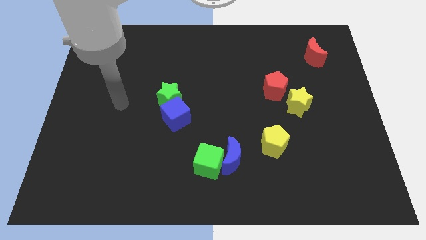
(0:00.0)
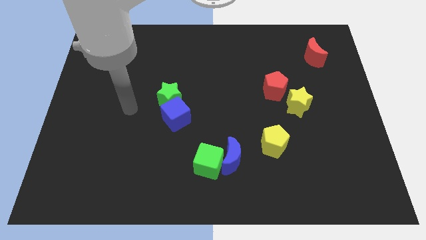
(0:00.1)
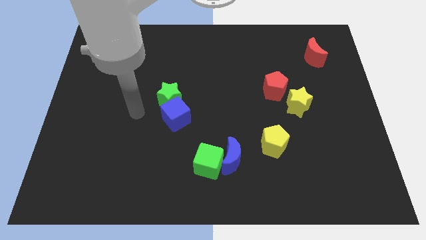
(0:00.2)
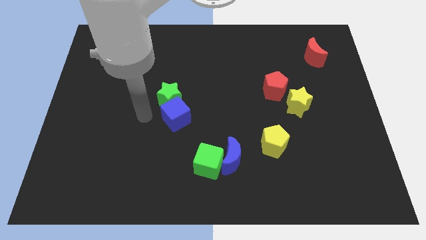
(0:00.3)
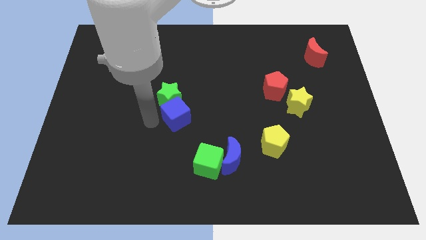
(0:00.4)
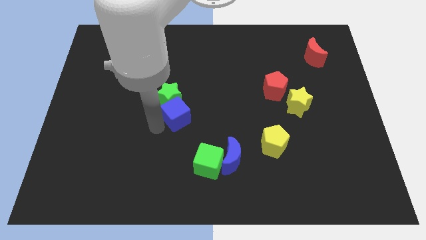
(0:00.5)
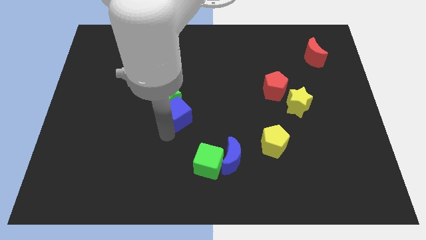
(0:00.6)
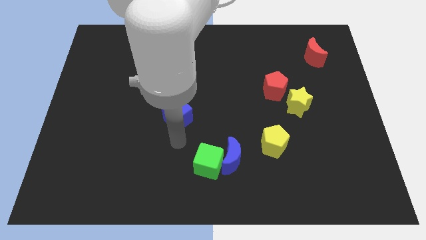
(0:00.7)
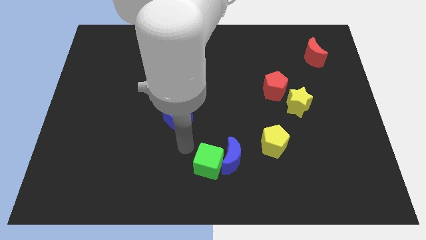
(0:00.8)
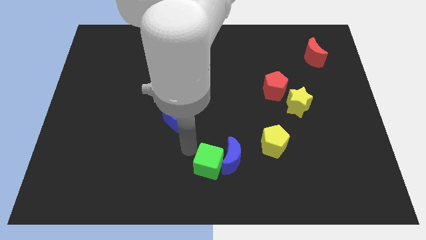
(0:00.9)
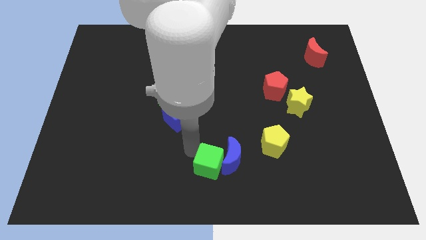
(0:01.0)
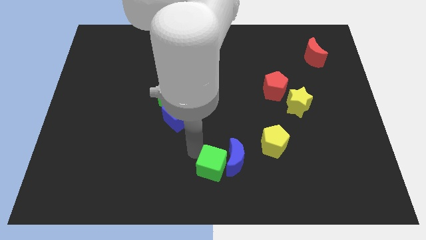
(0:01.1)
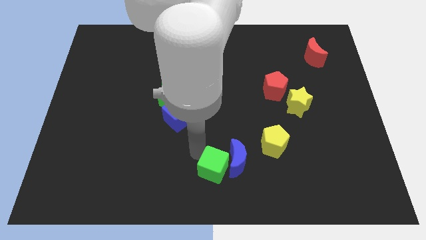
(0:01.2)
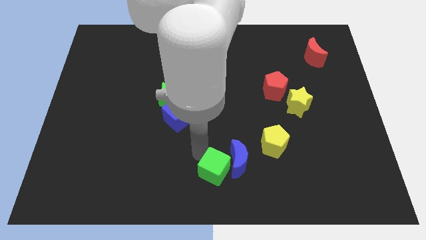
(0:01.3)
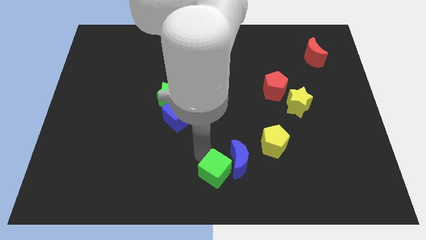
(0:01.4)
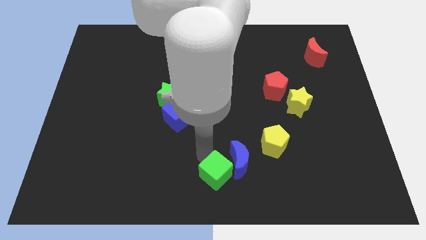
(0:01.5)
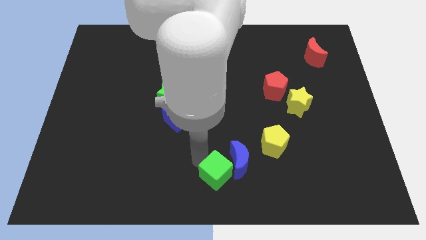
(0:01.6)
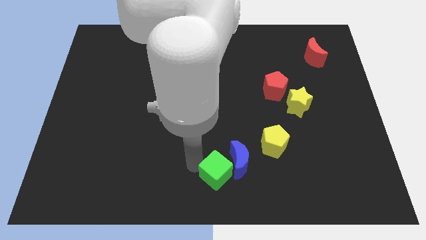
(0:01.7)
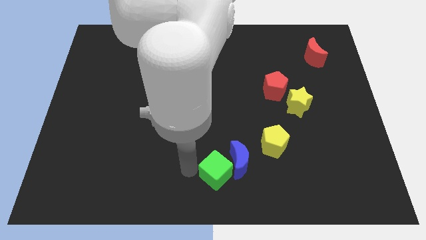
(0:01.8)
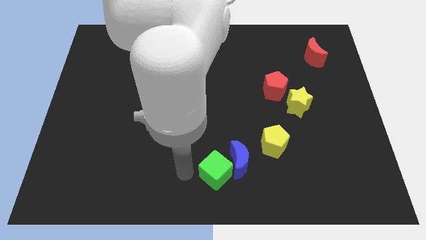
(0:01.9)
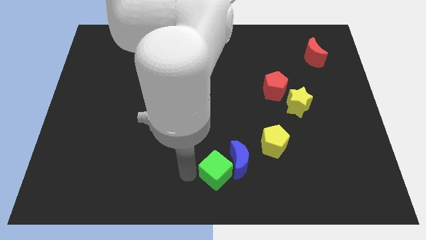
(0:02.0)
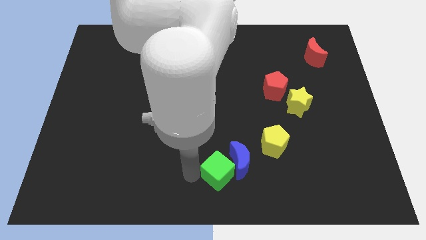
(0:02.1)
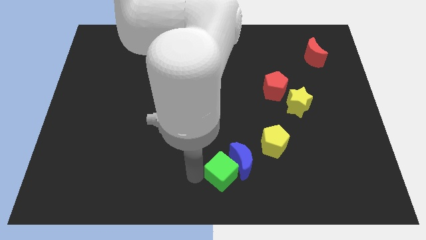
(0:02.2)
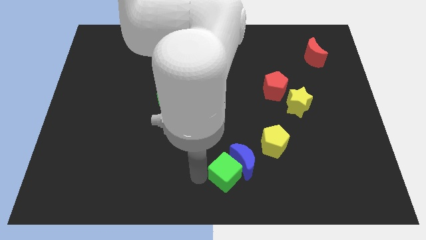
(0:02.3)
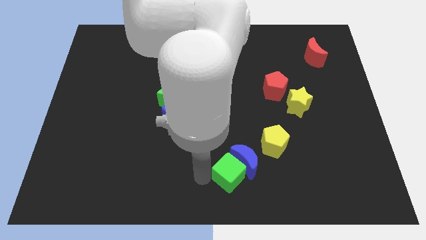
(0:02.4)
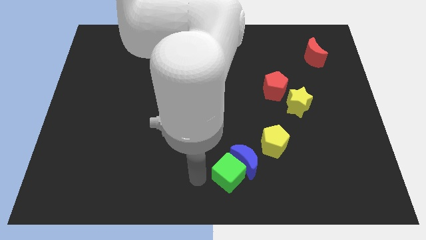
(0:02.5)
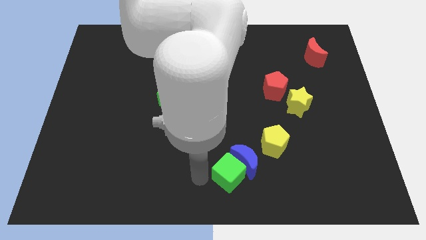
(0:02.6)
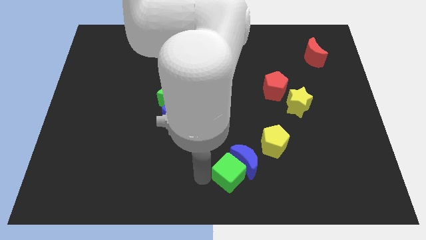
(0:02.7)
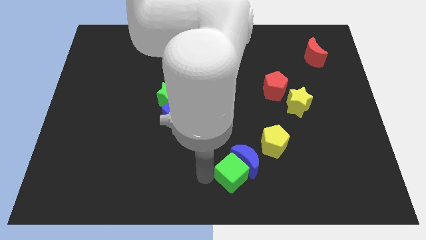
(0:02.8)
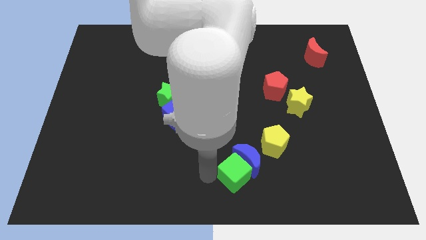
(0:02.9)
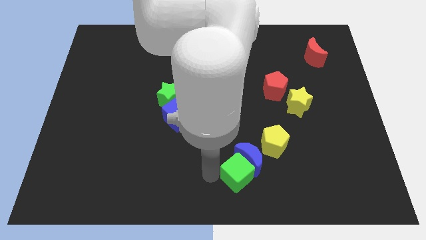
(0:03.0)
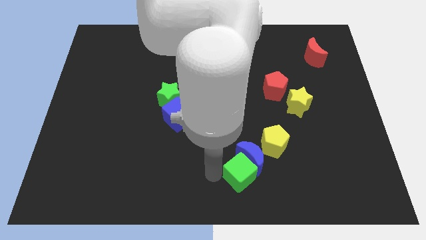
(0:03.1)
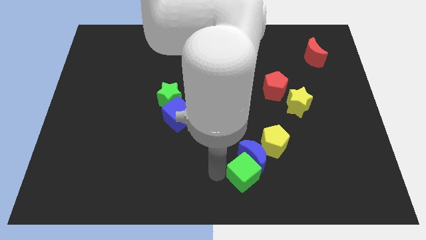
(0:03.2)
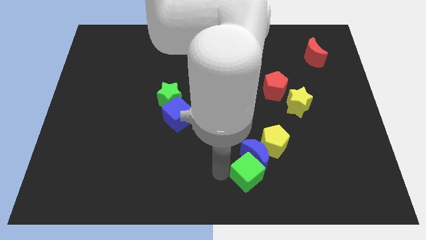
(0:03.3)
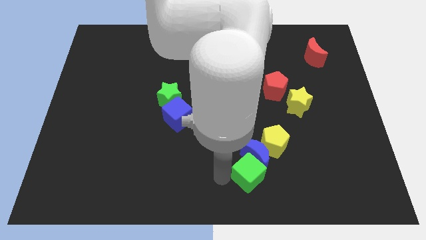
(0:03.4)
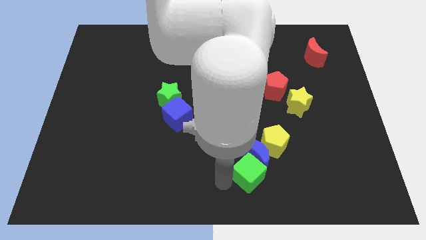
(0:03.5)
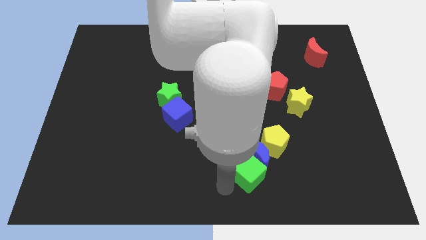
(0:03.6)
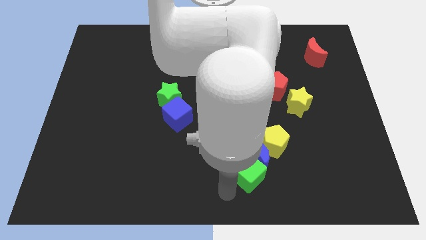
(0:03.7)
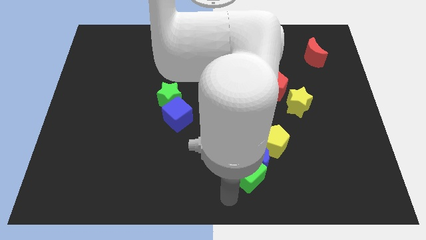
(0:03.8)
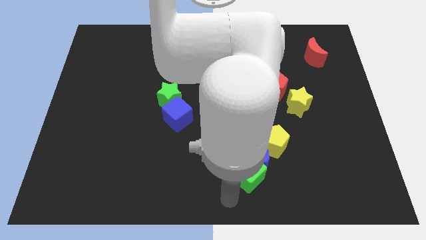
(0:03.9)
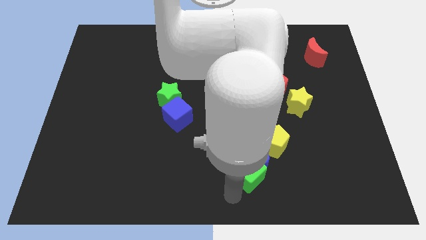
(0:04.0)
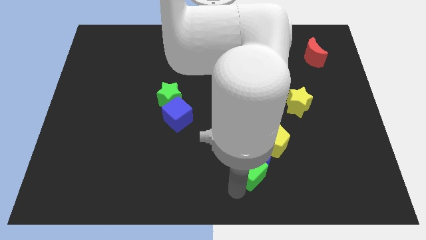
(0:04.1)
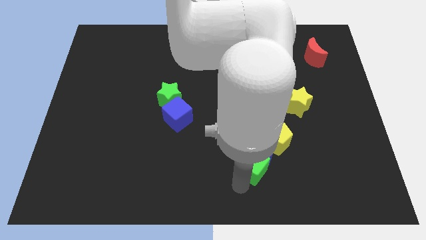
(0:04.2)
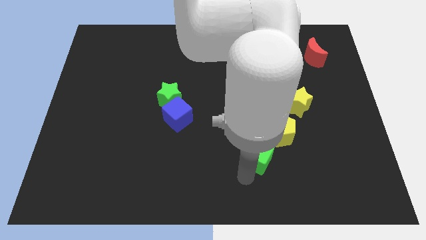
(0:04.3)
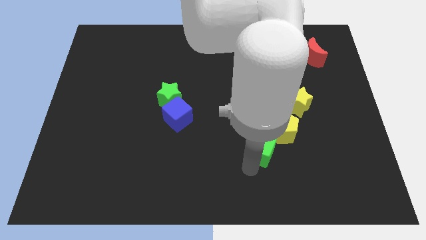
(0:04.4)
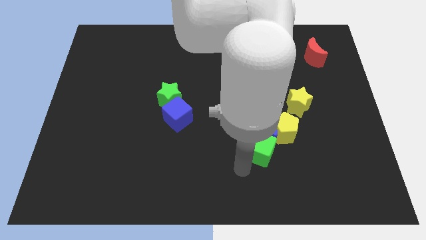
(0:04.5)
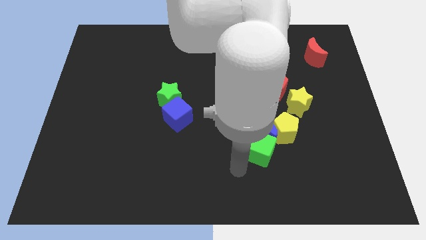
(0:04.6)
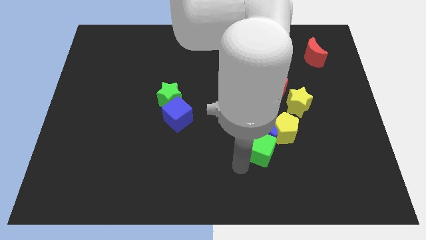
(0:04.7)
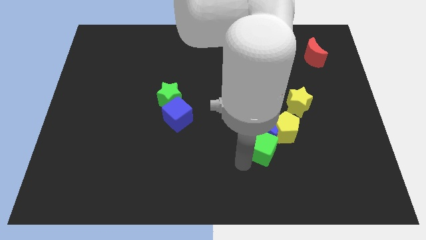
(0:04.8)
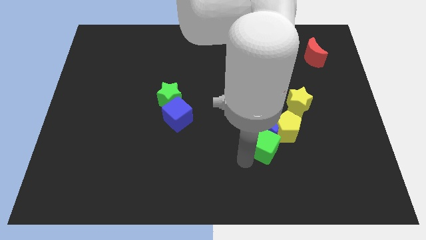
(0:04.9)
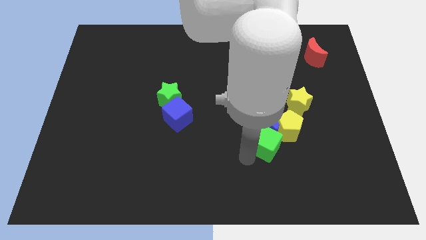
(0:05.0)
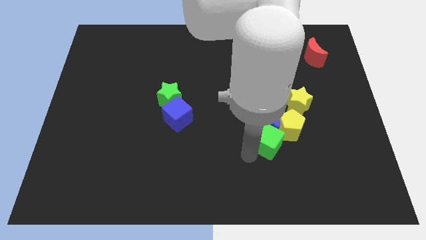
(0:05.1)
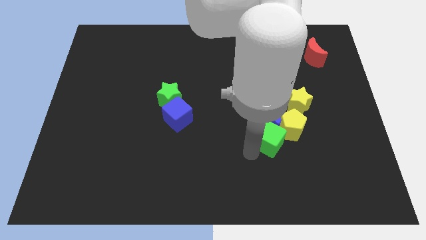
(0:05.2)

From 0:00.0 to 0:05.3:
slide the green cube next to the yellow pentagon

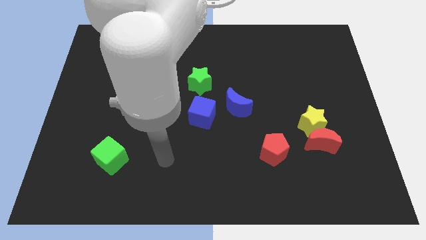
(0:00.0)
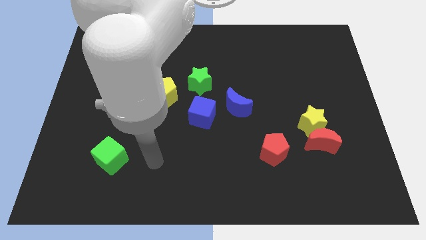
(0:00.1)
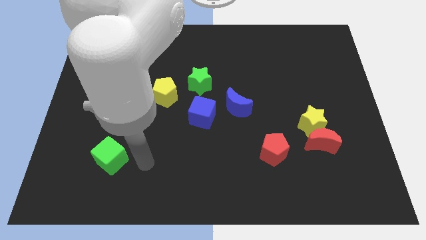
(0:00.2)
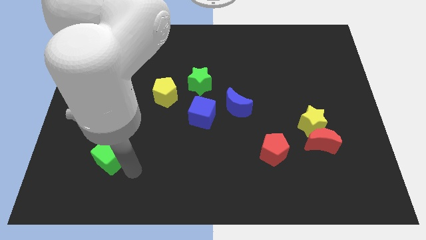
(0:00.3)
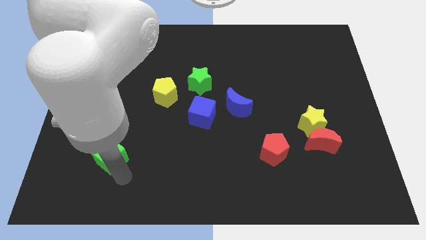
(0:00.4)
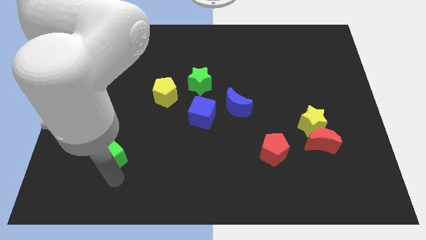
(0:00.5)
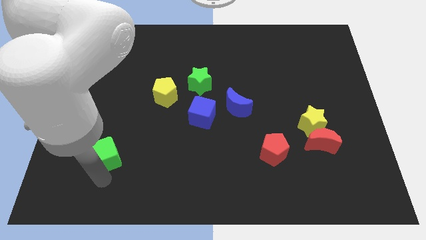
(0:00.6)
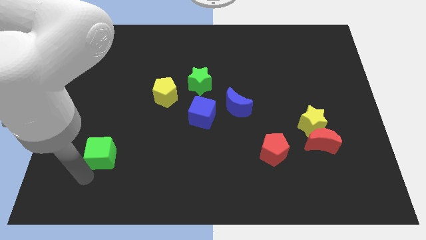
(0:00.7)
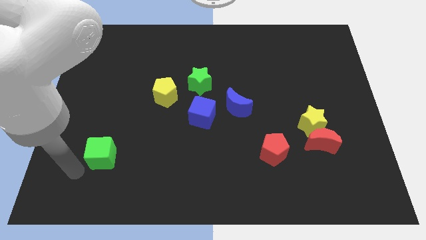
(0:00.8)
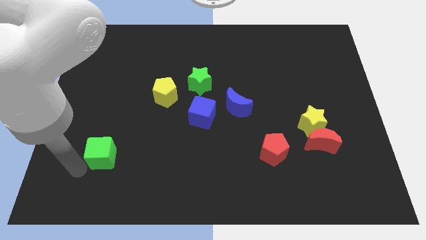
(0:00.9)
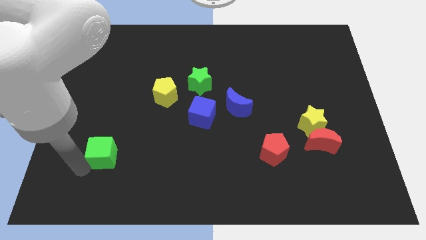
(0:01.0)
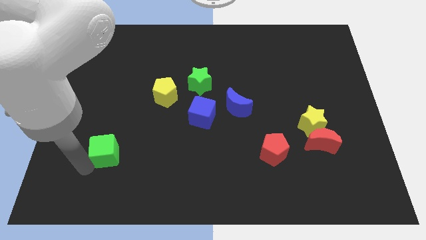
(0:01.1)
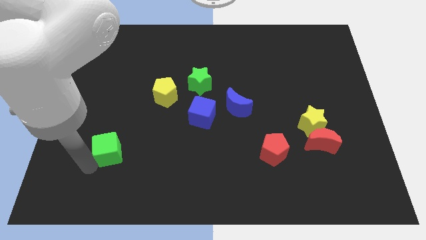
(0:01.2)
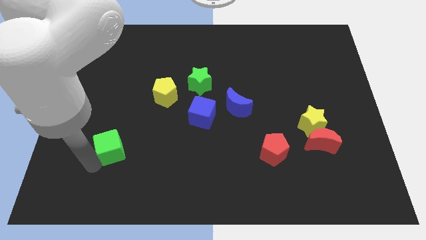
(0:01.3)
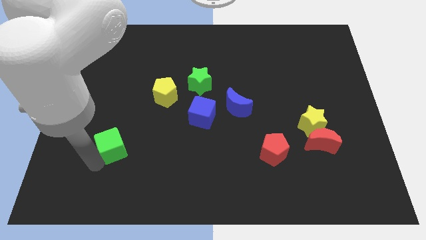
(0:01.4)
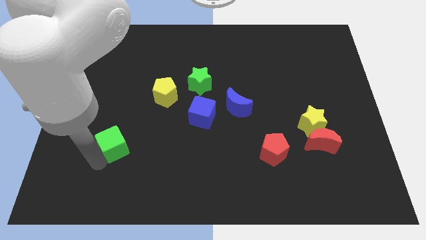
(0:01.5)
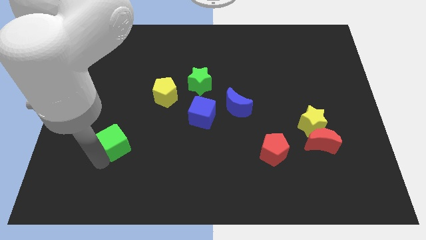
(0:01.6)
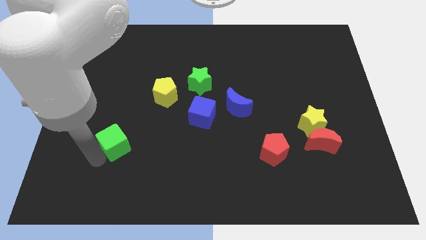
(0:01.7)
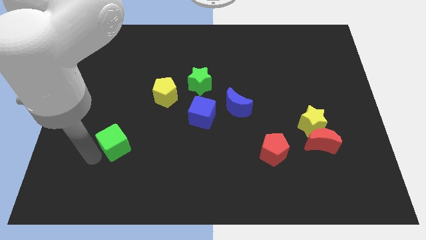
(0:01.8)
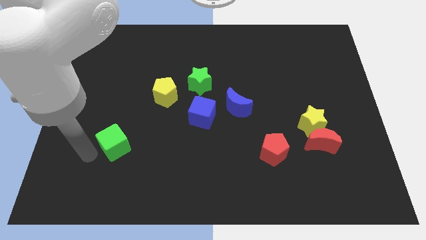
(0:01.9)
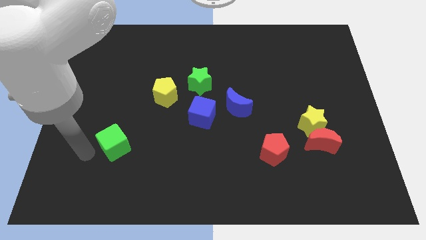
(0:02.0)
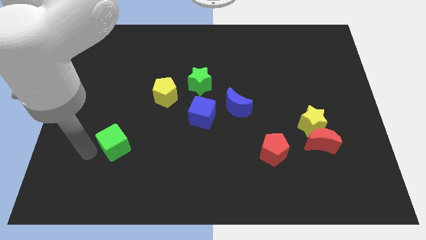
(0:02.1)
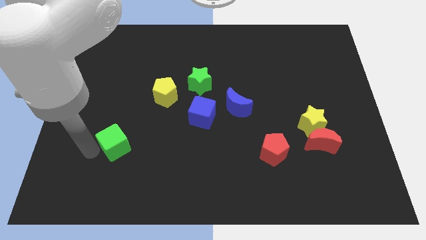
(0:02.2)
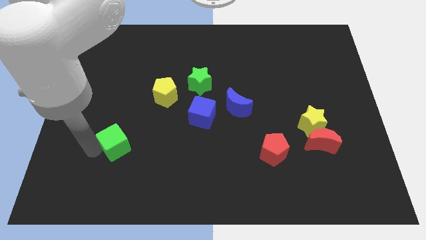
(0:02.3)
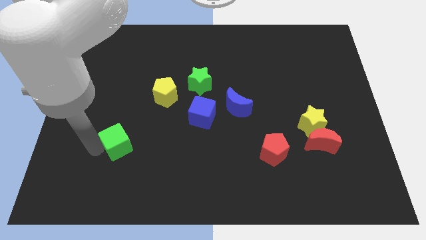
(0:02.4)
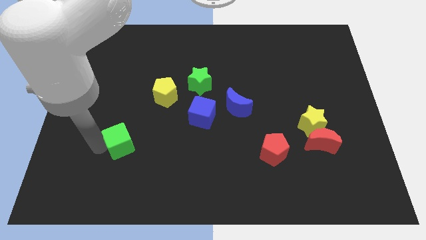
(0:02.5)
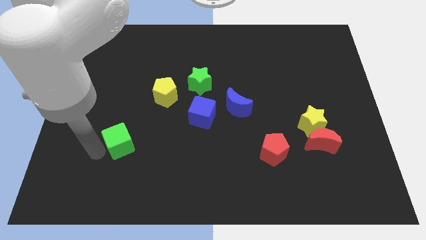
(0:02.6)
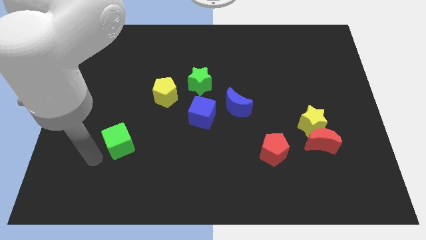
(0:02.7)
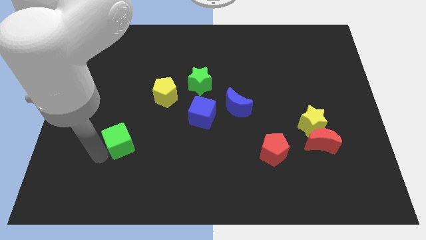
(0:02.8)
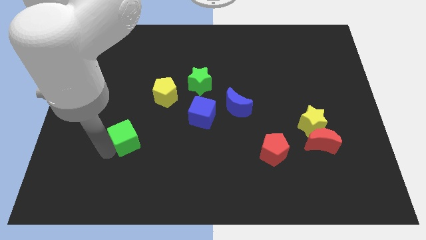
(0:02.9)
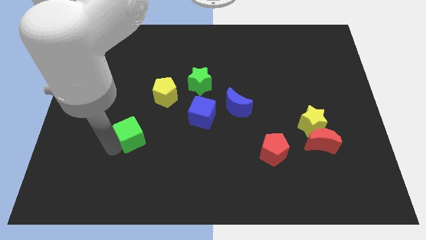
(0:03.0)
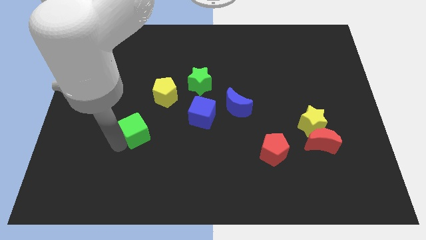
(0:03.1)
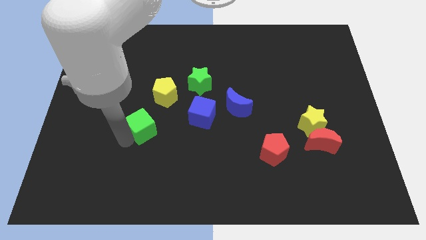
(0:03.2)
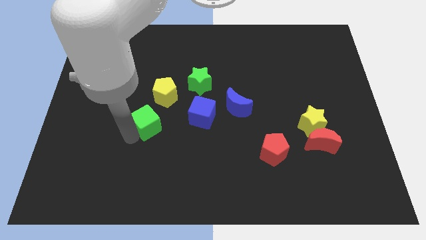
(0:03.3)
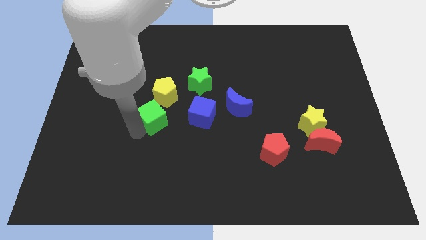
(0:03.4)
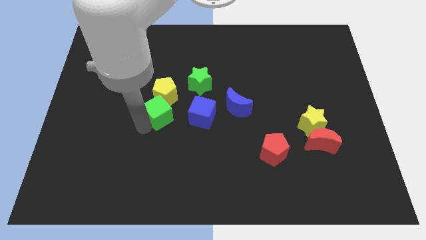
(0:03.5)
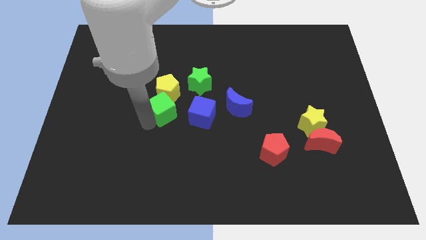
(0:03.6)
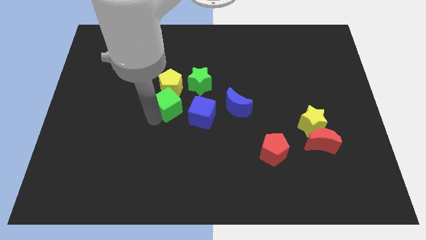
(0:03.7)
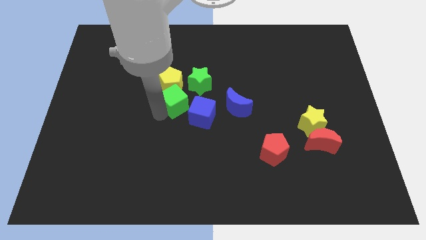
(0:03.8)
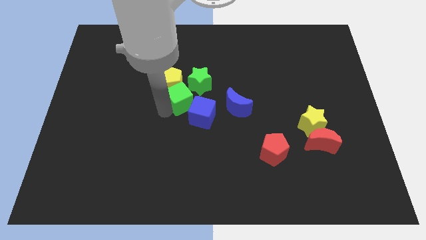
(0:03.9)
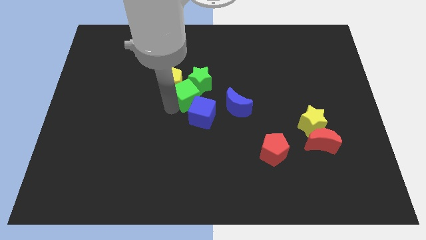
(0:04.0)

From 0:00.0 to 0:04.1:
move the green cube next to the green star
